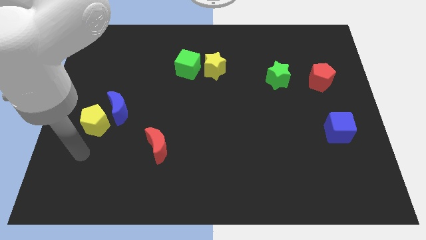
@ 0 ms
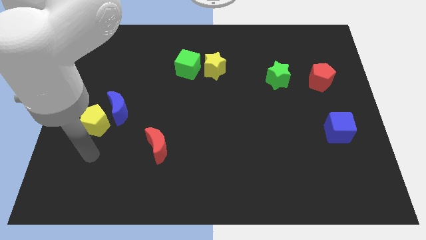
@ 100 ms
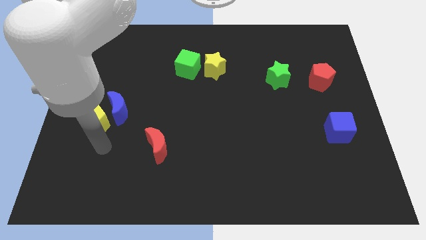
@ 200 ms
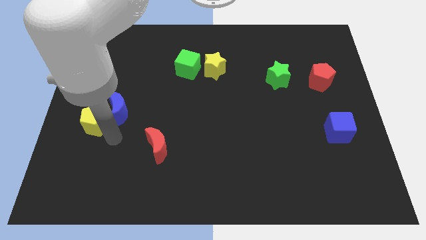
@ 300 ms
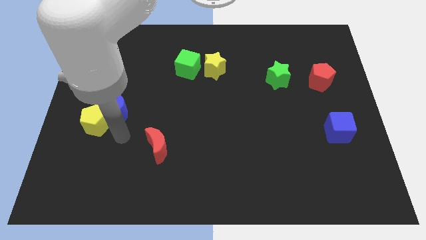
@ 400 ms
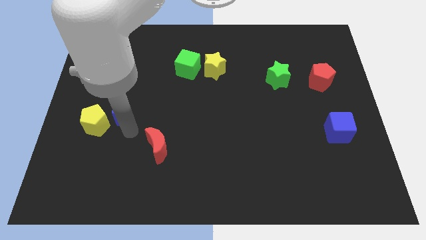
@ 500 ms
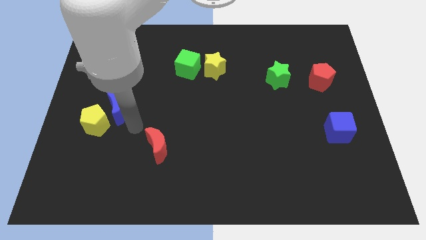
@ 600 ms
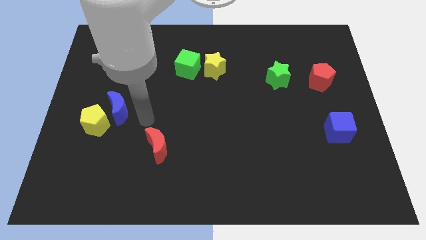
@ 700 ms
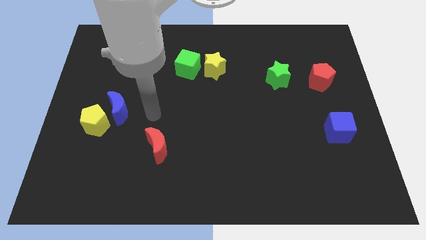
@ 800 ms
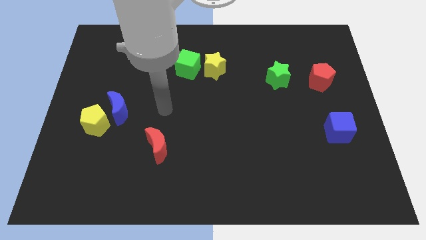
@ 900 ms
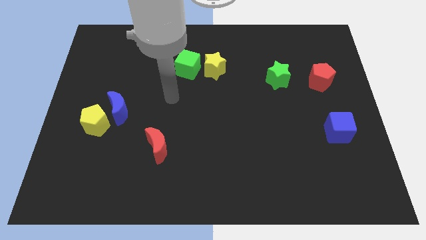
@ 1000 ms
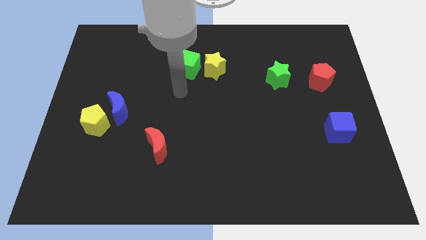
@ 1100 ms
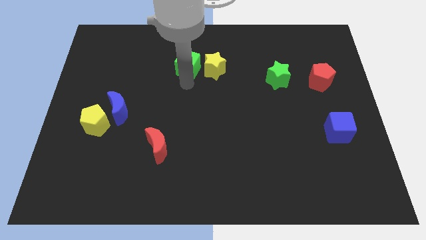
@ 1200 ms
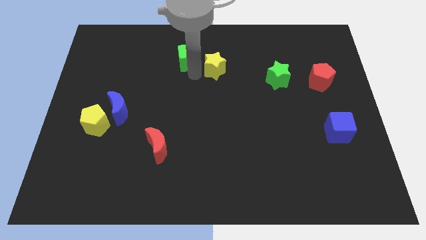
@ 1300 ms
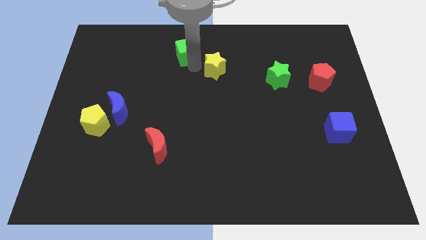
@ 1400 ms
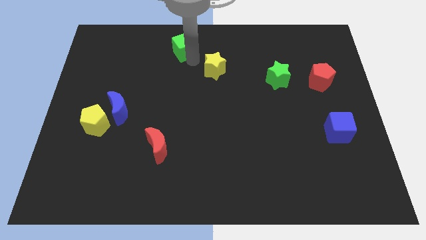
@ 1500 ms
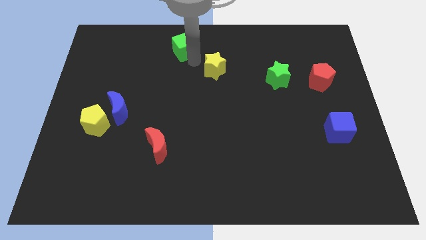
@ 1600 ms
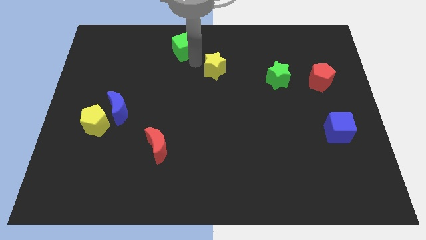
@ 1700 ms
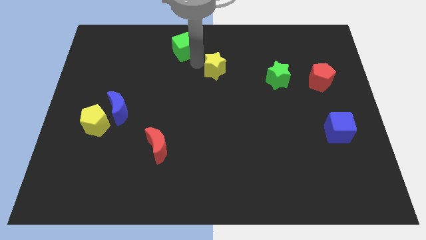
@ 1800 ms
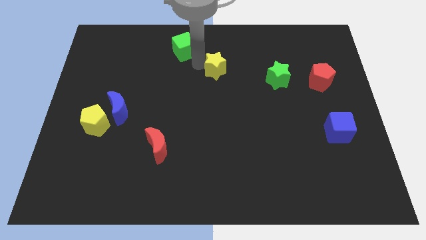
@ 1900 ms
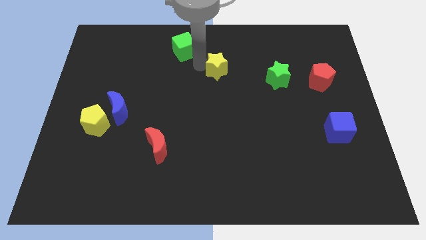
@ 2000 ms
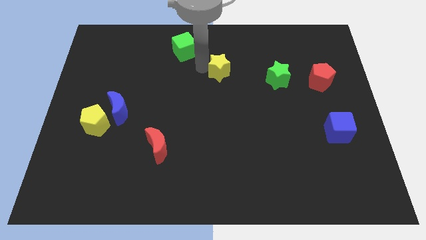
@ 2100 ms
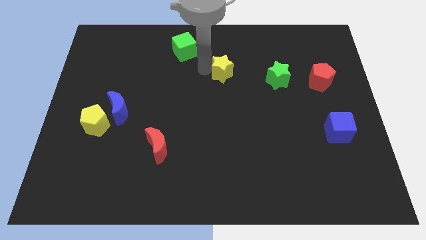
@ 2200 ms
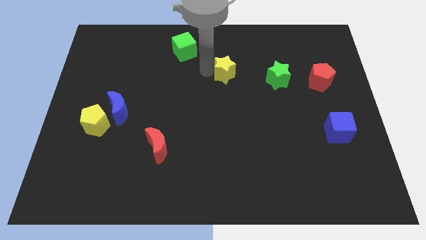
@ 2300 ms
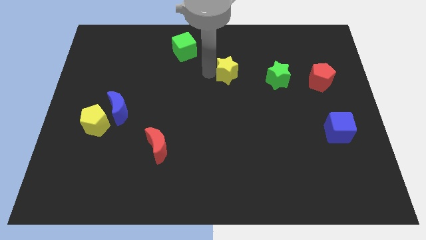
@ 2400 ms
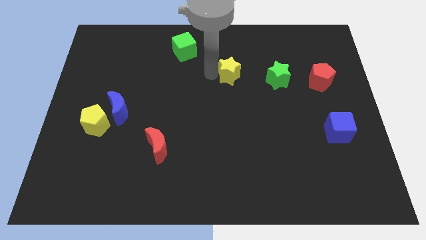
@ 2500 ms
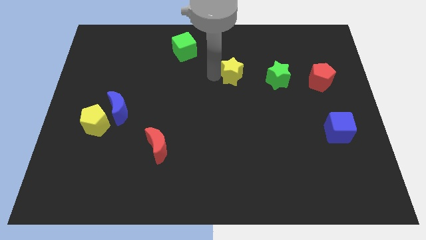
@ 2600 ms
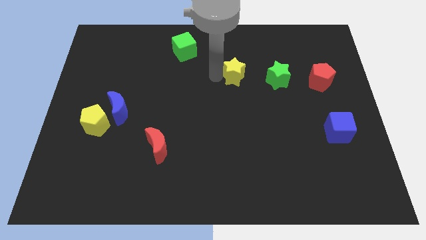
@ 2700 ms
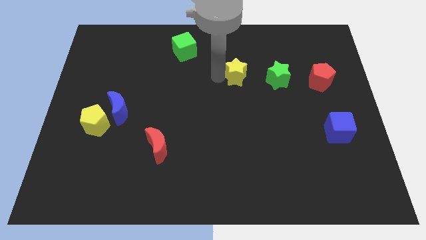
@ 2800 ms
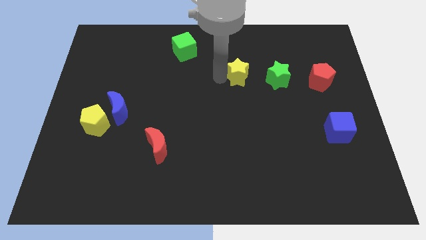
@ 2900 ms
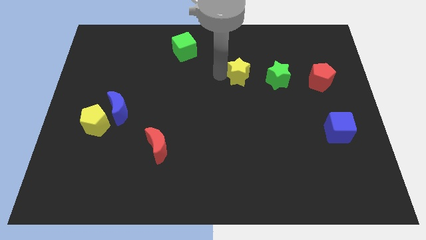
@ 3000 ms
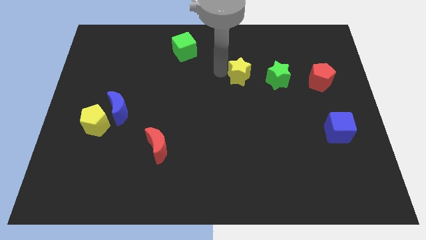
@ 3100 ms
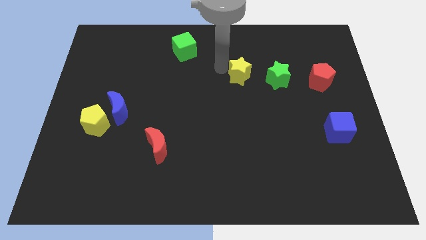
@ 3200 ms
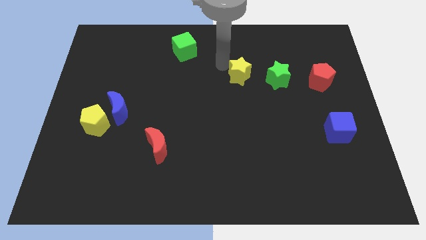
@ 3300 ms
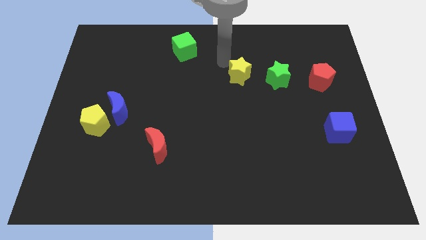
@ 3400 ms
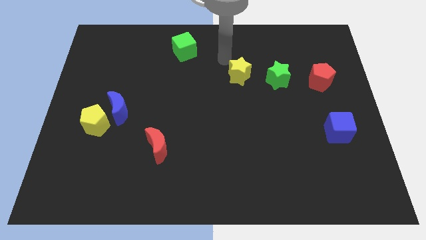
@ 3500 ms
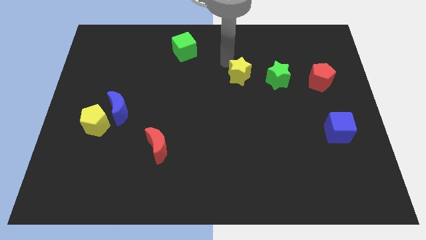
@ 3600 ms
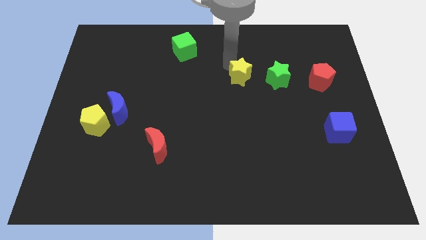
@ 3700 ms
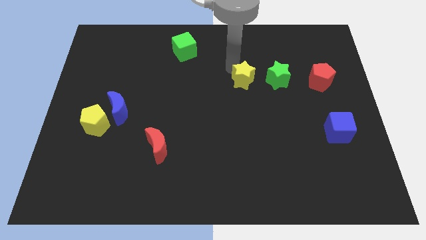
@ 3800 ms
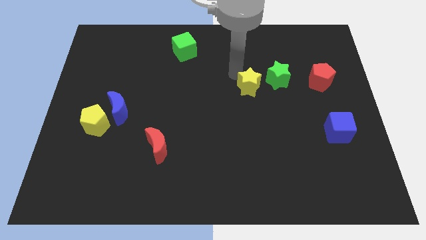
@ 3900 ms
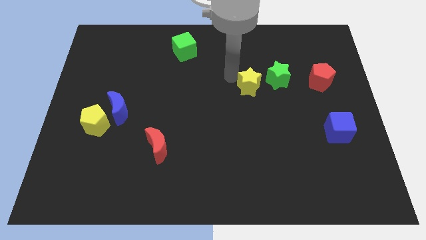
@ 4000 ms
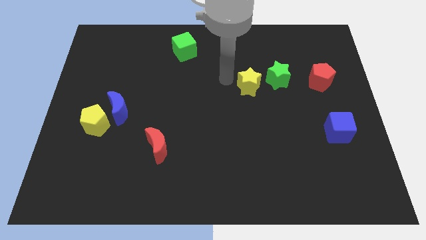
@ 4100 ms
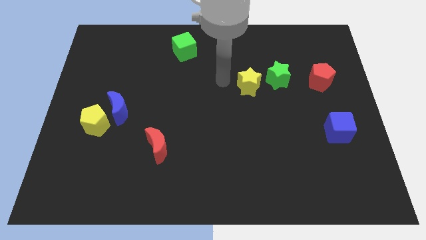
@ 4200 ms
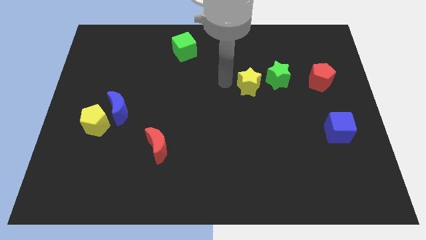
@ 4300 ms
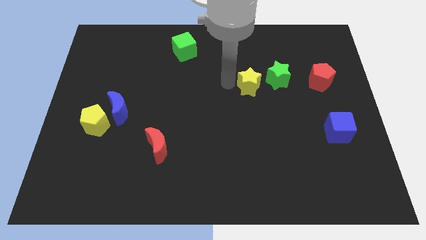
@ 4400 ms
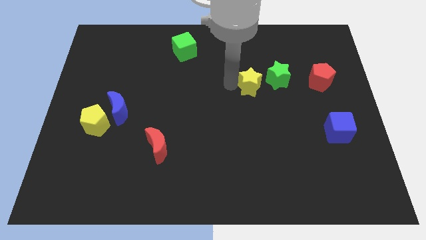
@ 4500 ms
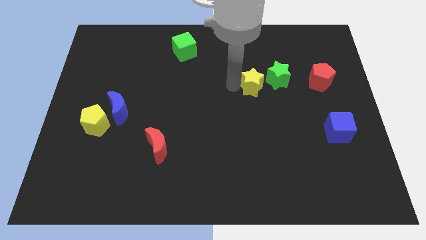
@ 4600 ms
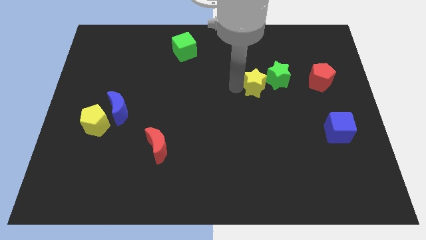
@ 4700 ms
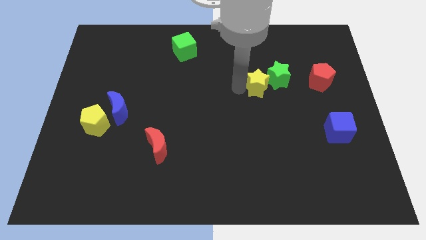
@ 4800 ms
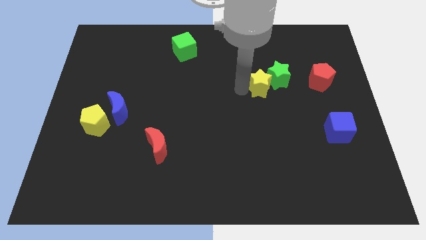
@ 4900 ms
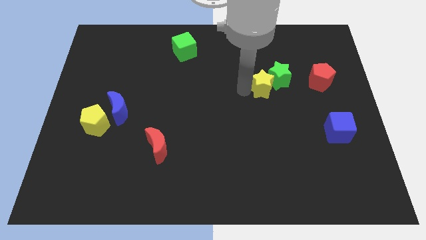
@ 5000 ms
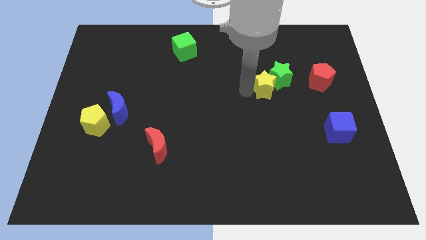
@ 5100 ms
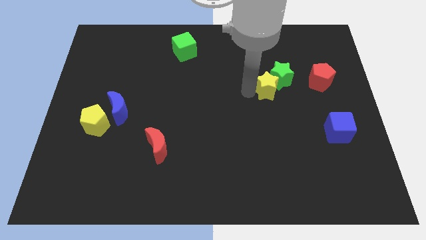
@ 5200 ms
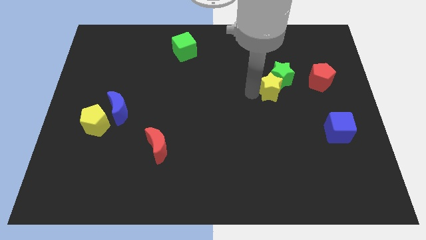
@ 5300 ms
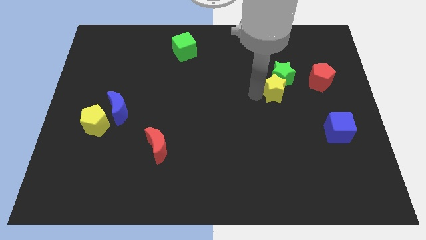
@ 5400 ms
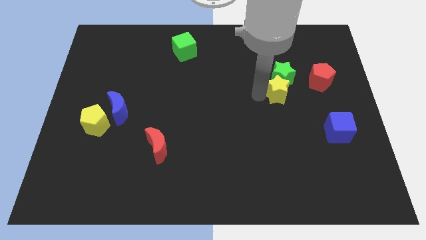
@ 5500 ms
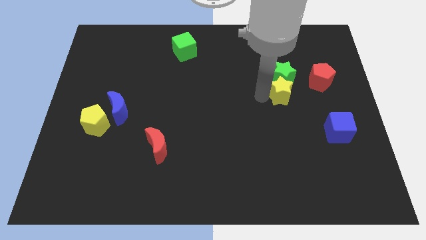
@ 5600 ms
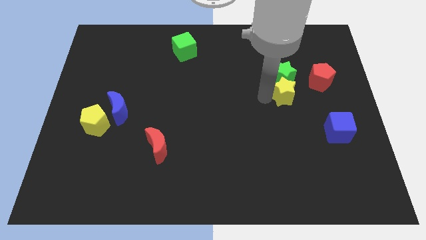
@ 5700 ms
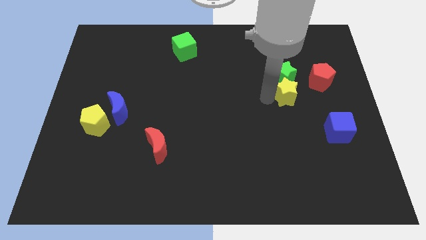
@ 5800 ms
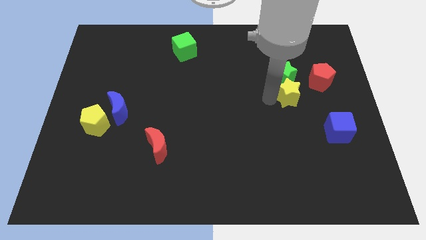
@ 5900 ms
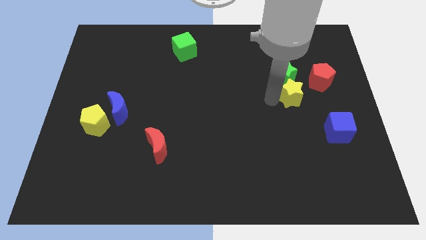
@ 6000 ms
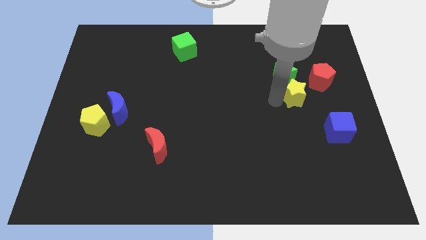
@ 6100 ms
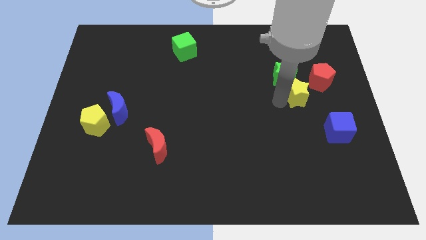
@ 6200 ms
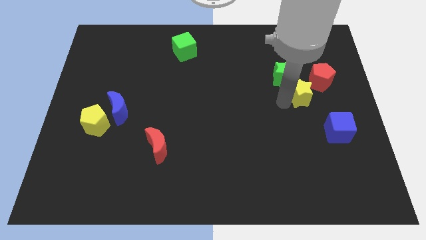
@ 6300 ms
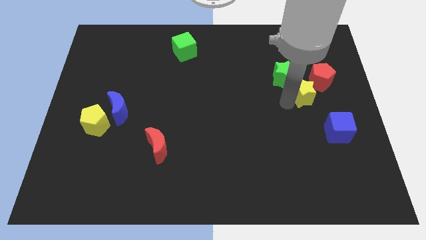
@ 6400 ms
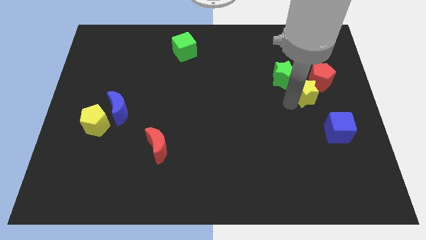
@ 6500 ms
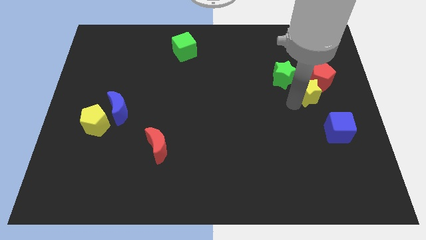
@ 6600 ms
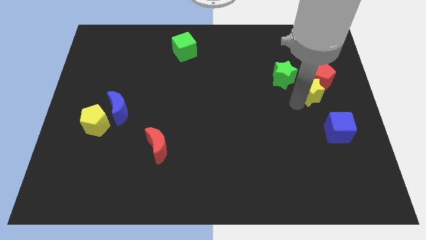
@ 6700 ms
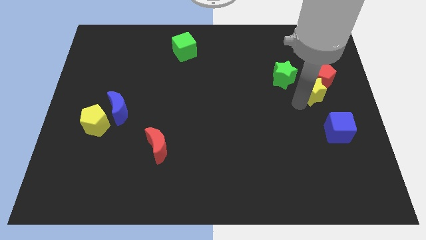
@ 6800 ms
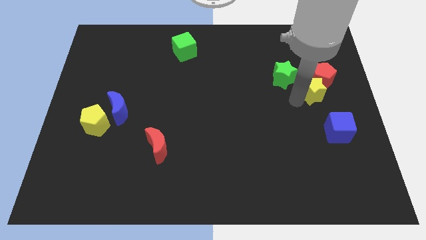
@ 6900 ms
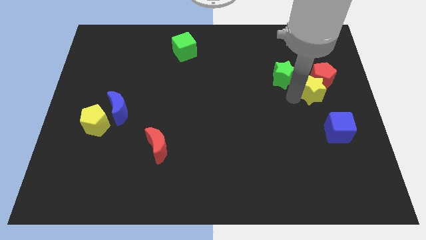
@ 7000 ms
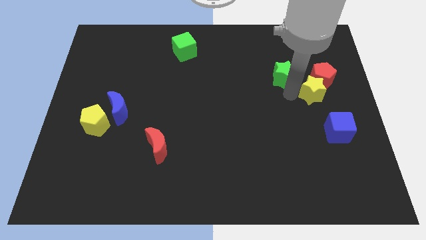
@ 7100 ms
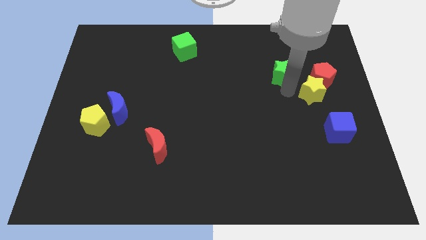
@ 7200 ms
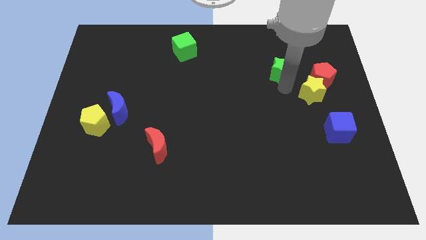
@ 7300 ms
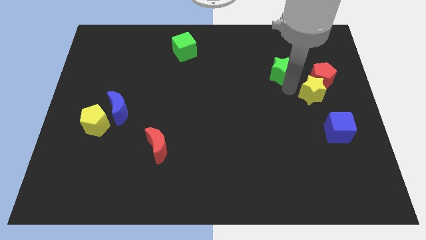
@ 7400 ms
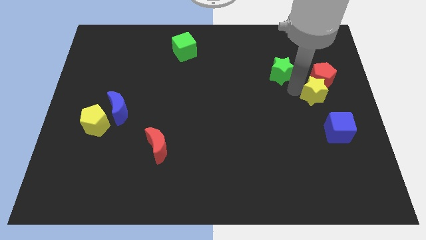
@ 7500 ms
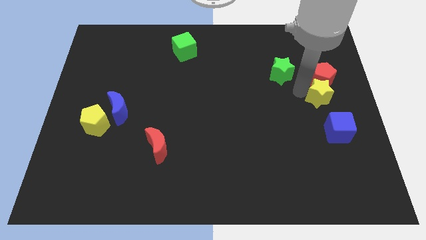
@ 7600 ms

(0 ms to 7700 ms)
move the yellow star to the right side of the board
